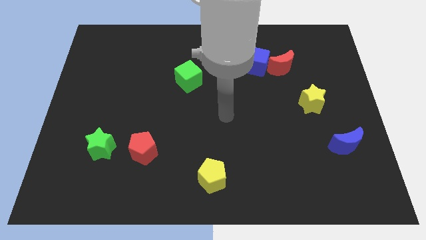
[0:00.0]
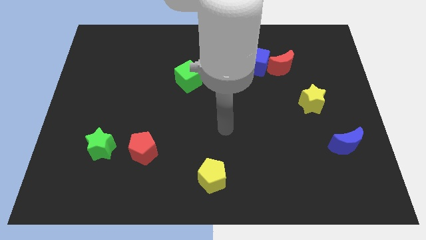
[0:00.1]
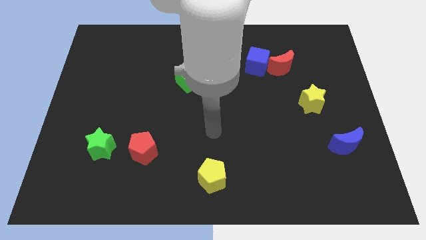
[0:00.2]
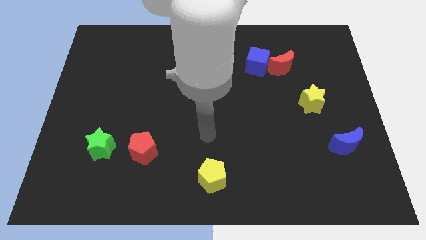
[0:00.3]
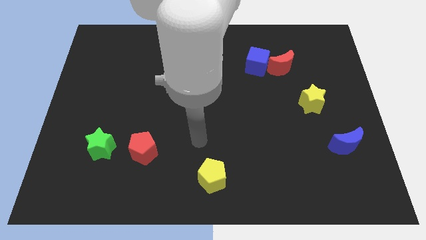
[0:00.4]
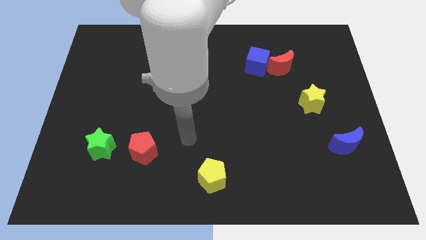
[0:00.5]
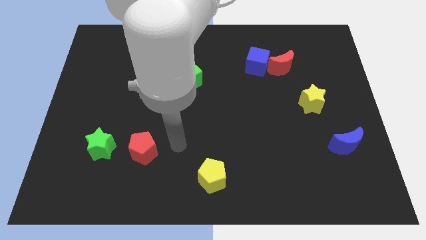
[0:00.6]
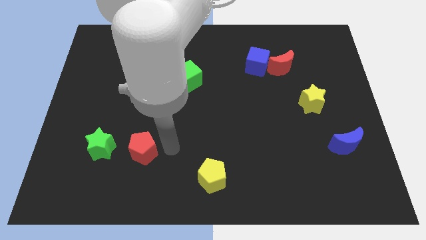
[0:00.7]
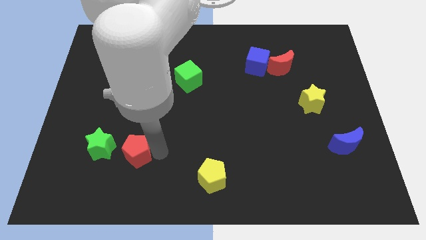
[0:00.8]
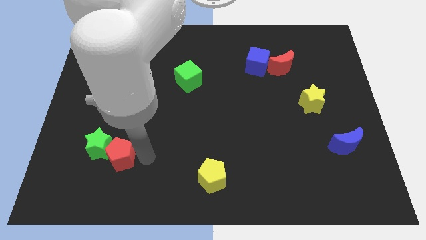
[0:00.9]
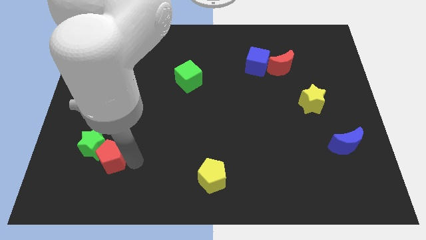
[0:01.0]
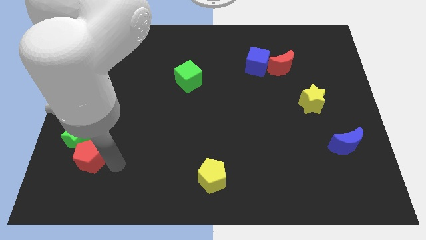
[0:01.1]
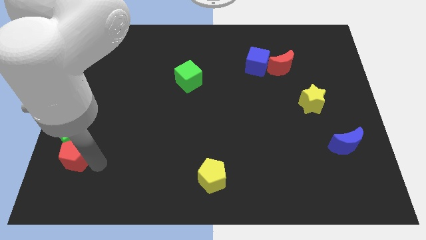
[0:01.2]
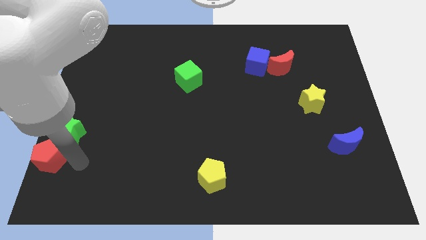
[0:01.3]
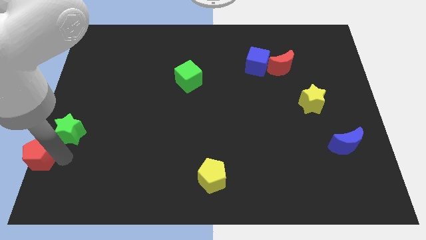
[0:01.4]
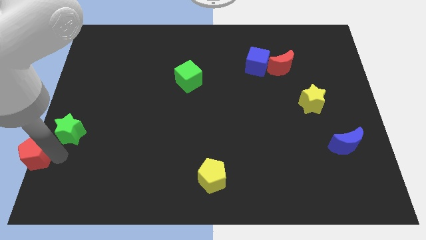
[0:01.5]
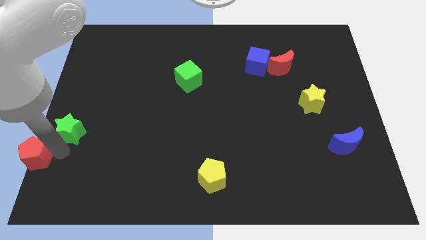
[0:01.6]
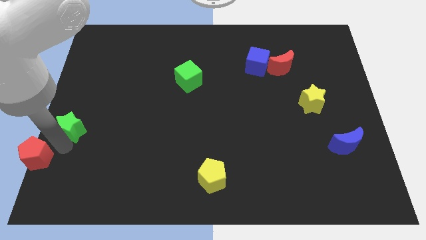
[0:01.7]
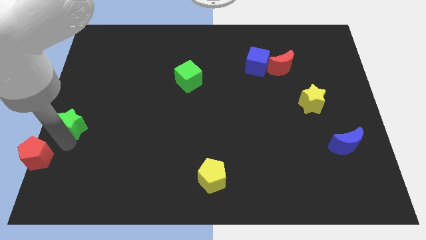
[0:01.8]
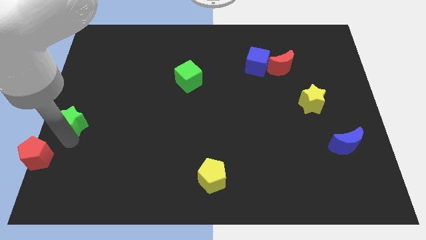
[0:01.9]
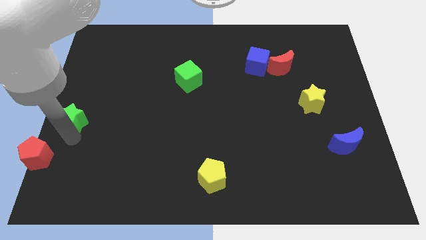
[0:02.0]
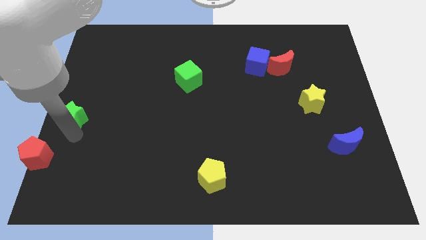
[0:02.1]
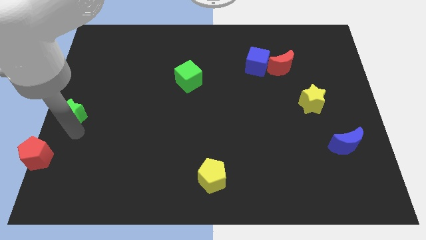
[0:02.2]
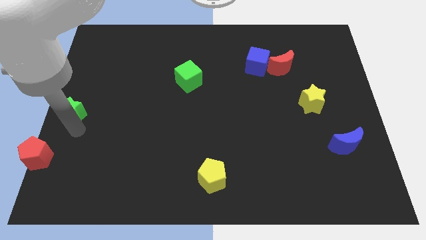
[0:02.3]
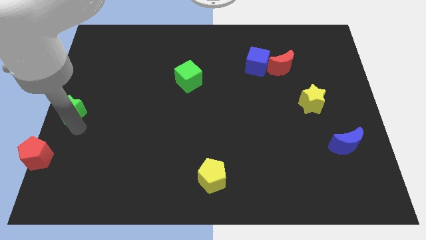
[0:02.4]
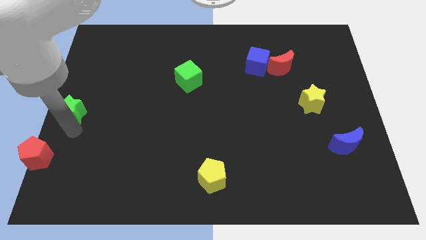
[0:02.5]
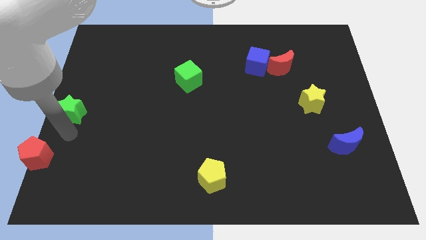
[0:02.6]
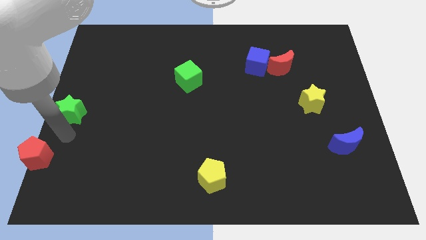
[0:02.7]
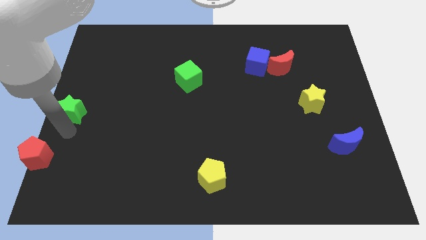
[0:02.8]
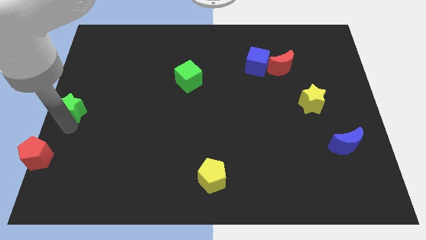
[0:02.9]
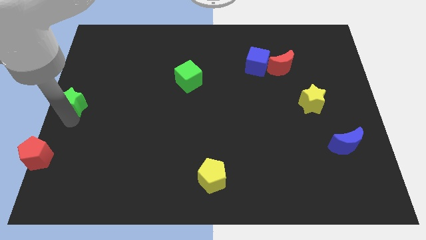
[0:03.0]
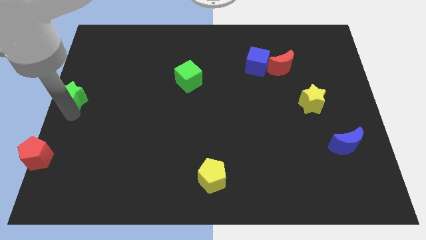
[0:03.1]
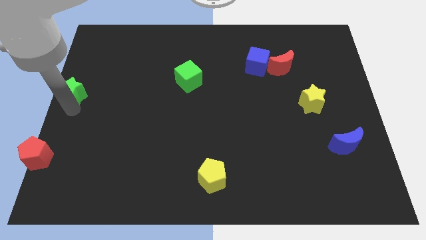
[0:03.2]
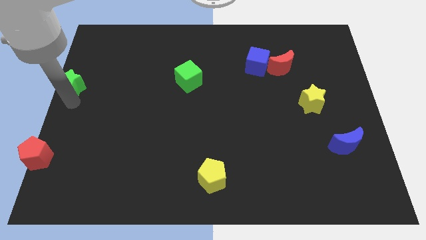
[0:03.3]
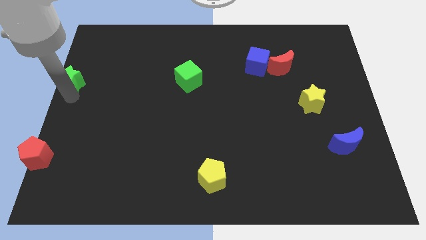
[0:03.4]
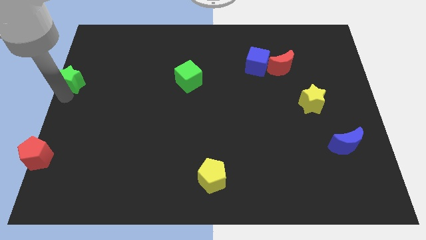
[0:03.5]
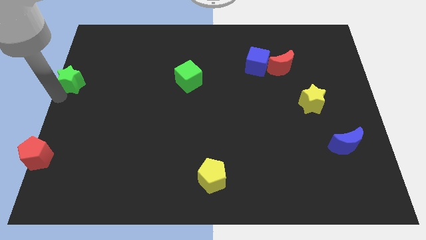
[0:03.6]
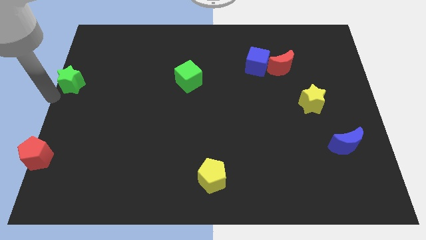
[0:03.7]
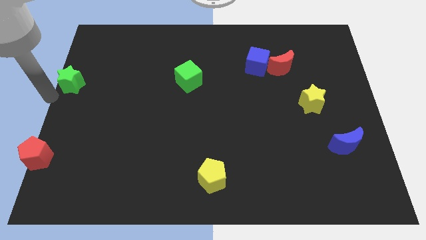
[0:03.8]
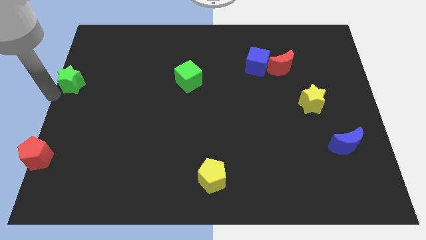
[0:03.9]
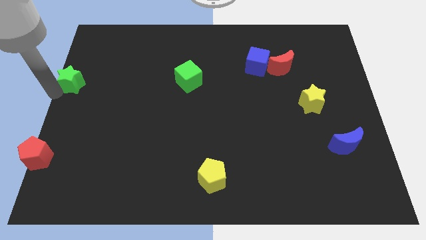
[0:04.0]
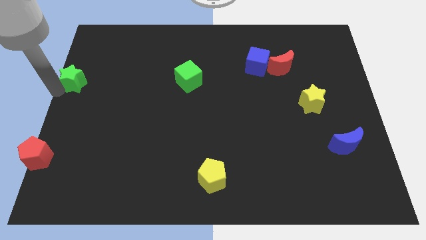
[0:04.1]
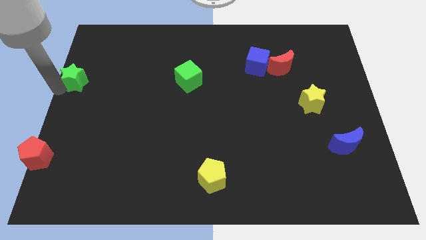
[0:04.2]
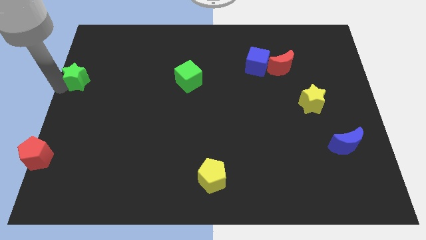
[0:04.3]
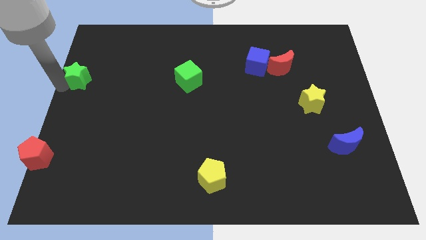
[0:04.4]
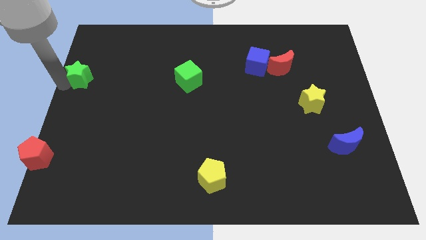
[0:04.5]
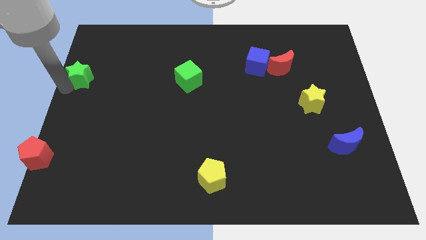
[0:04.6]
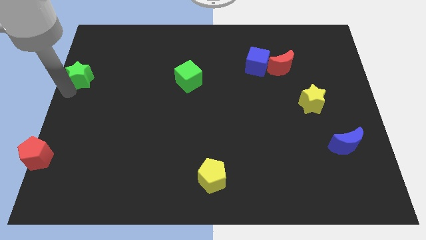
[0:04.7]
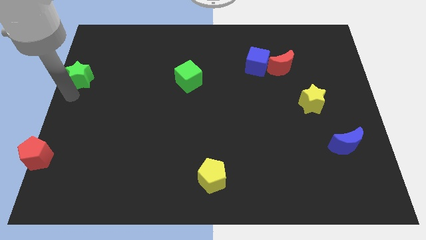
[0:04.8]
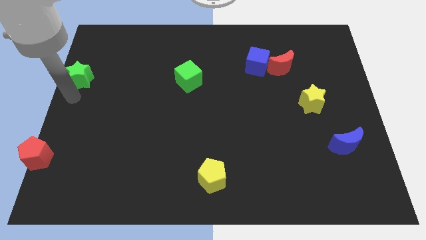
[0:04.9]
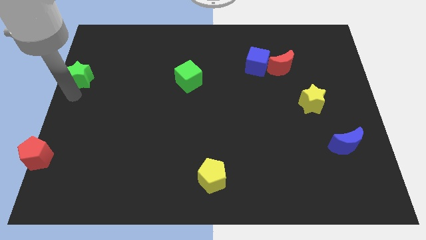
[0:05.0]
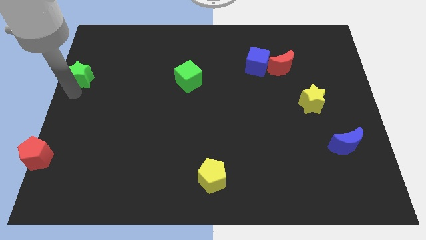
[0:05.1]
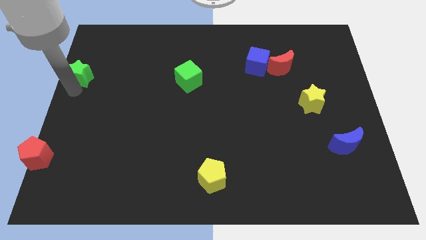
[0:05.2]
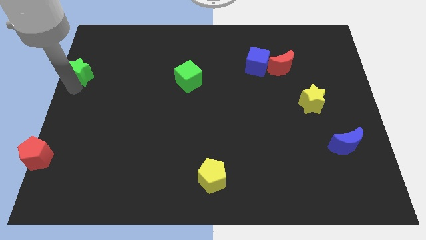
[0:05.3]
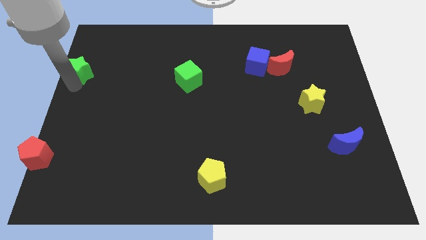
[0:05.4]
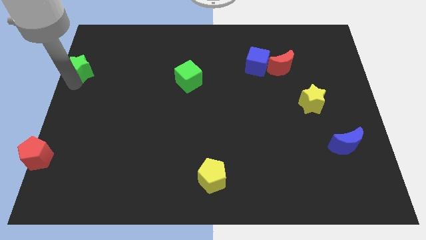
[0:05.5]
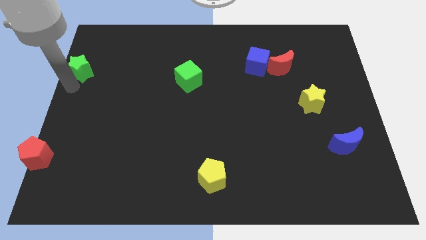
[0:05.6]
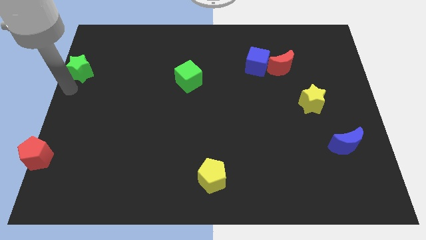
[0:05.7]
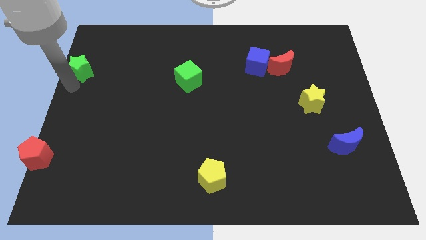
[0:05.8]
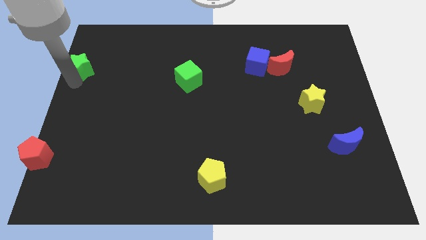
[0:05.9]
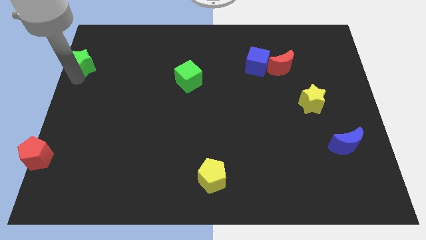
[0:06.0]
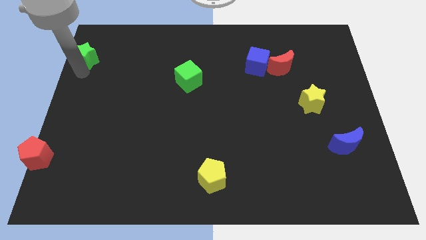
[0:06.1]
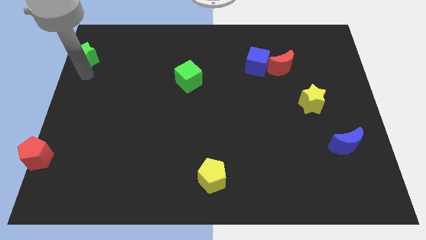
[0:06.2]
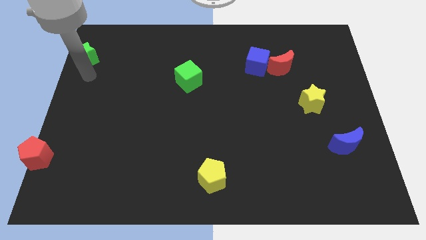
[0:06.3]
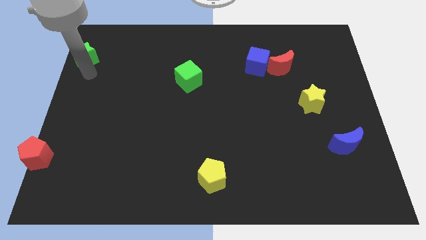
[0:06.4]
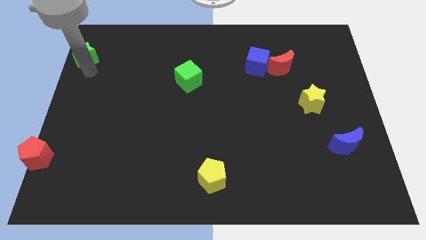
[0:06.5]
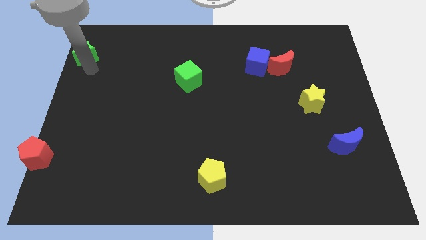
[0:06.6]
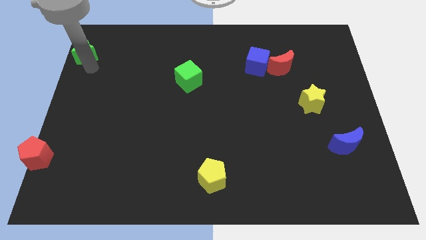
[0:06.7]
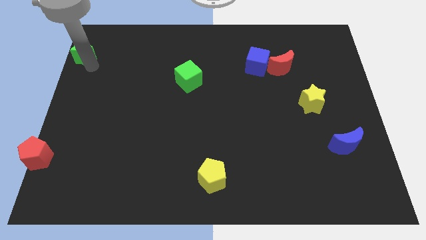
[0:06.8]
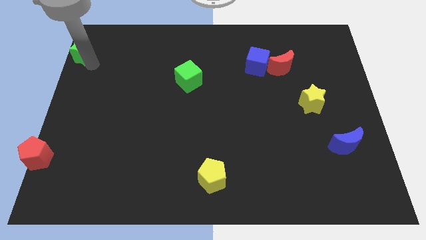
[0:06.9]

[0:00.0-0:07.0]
put the green star to the top left of the board

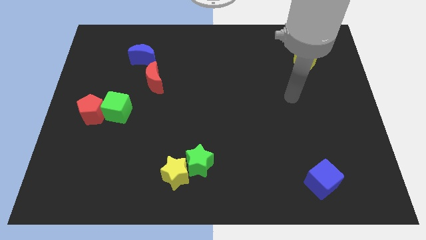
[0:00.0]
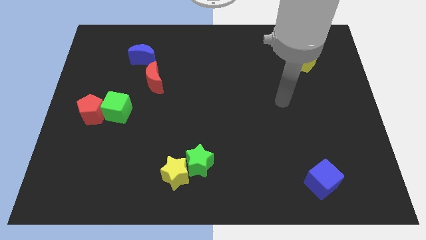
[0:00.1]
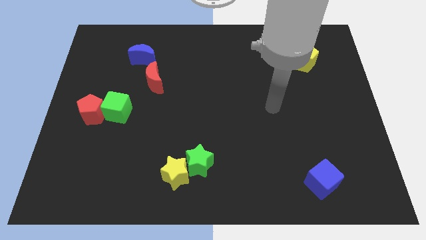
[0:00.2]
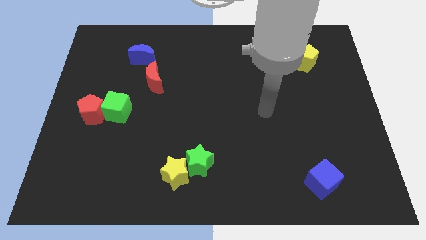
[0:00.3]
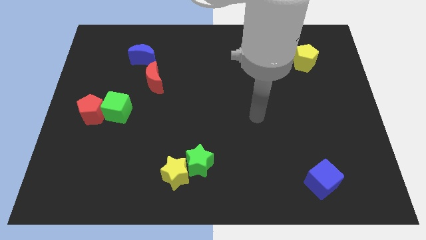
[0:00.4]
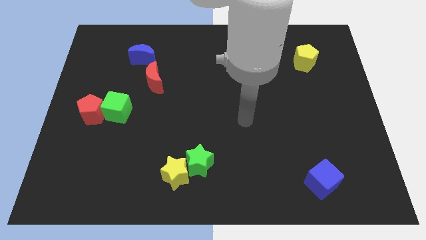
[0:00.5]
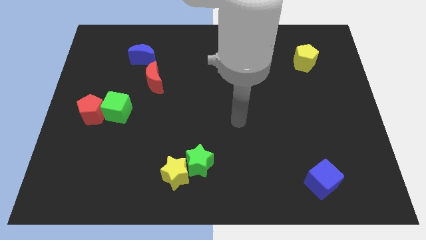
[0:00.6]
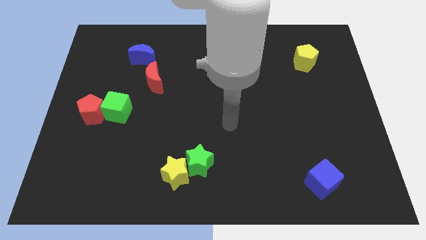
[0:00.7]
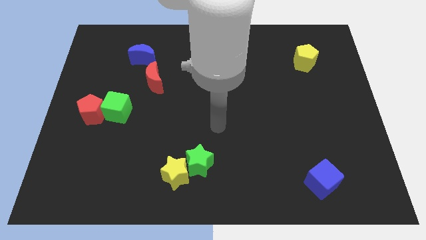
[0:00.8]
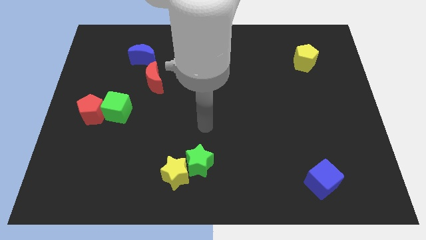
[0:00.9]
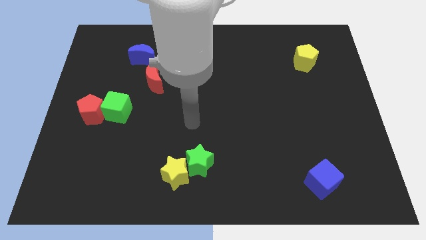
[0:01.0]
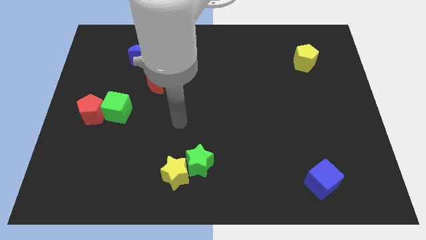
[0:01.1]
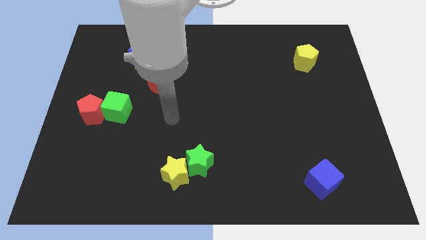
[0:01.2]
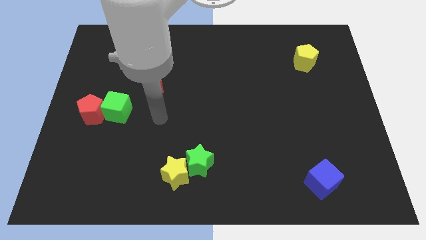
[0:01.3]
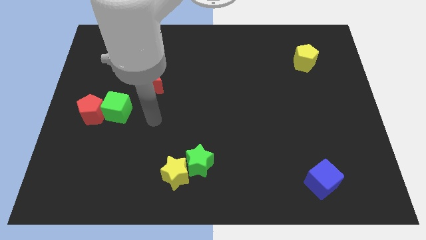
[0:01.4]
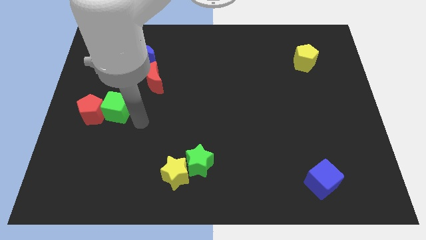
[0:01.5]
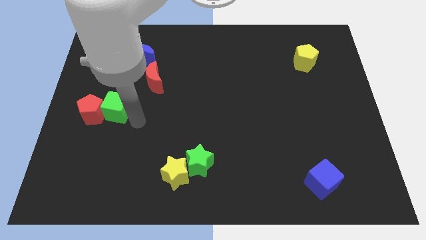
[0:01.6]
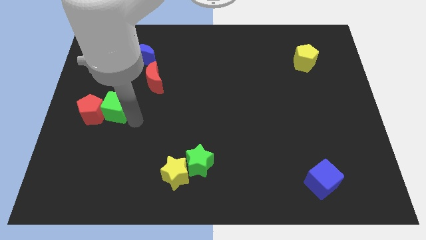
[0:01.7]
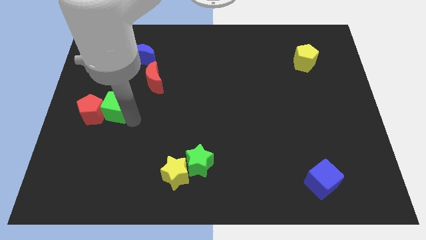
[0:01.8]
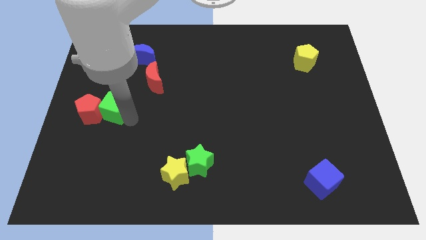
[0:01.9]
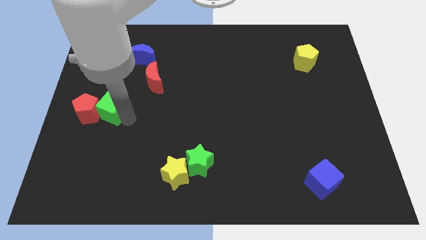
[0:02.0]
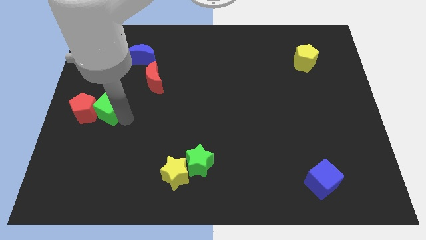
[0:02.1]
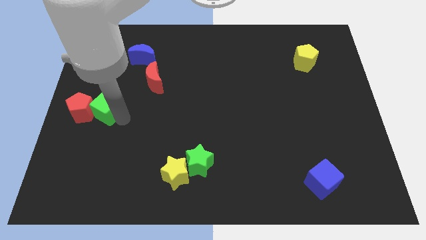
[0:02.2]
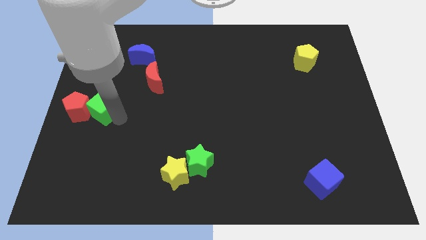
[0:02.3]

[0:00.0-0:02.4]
move the green cube to the left side of the board
